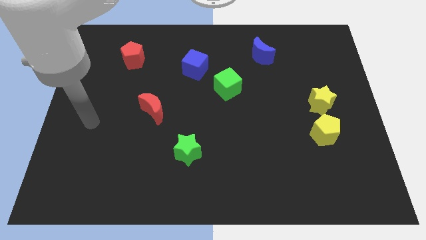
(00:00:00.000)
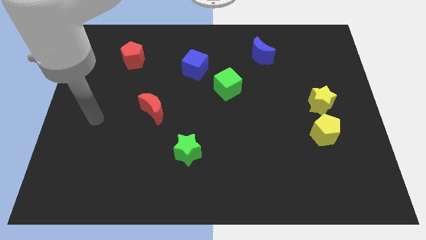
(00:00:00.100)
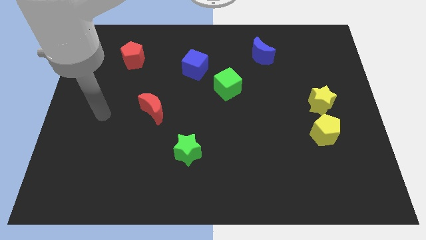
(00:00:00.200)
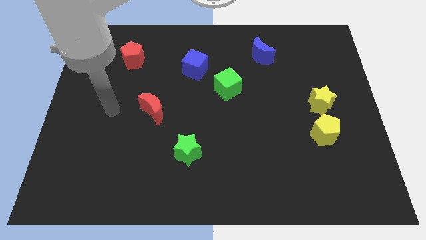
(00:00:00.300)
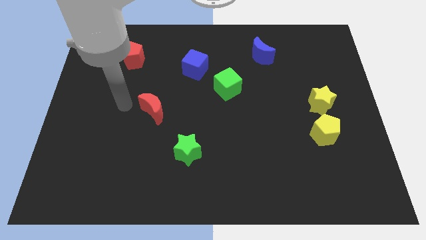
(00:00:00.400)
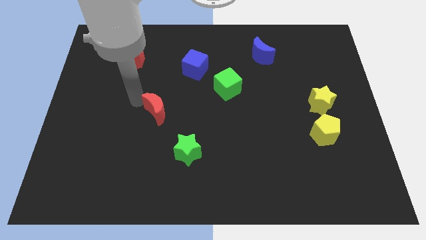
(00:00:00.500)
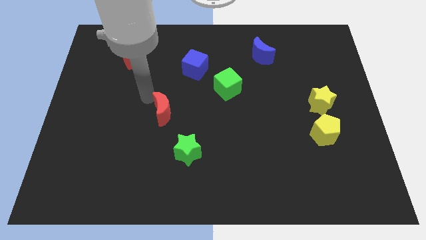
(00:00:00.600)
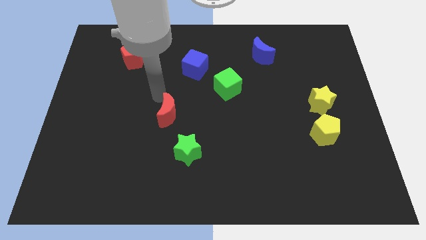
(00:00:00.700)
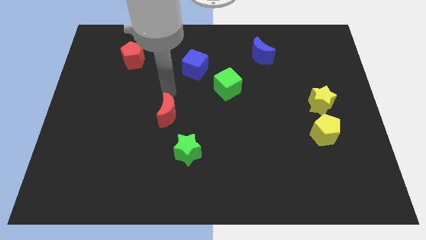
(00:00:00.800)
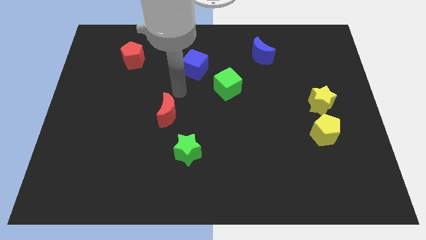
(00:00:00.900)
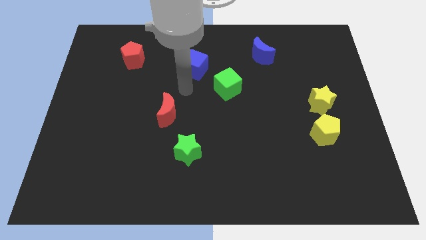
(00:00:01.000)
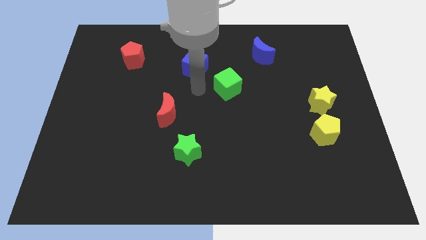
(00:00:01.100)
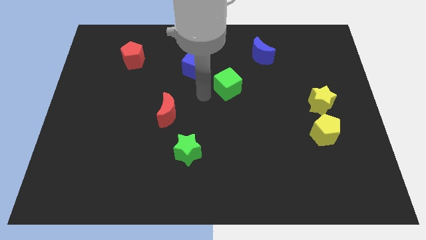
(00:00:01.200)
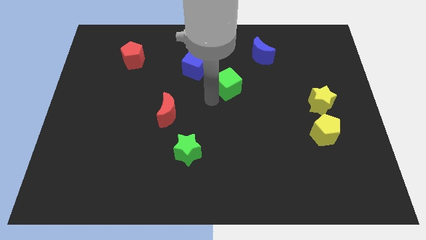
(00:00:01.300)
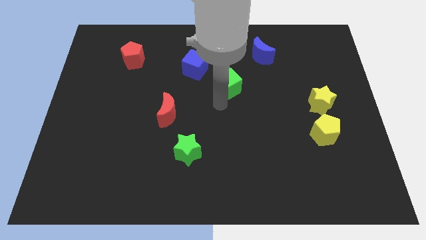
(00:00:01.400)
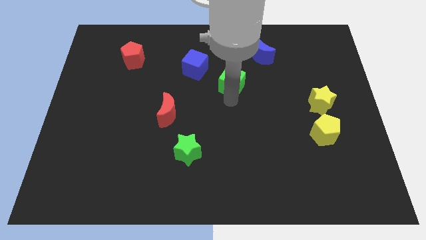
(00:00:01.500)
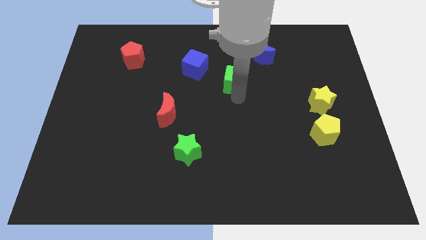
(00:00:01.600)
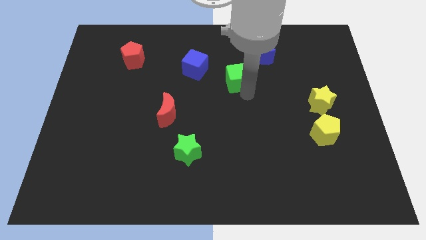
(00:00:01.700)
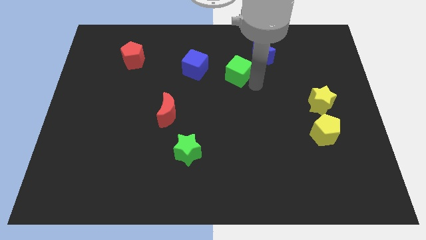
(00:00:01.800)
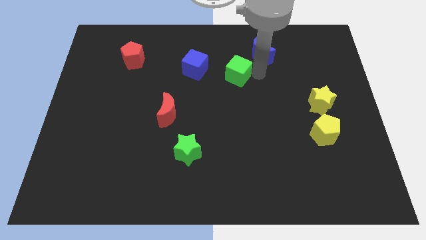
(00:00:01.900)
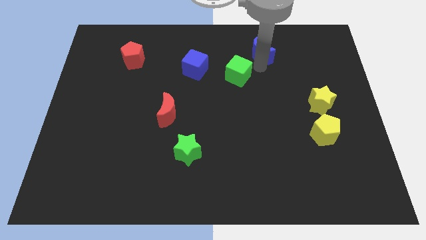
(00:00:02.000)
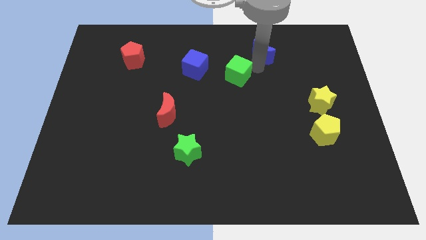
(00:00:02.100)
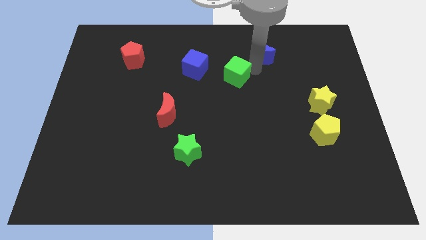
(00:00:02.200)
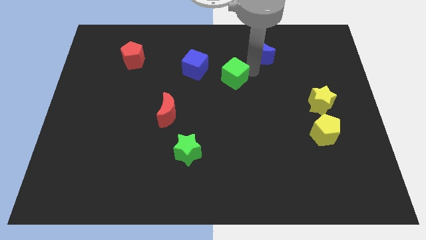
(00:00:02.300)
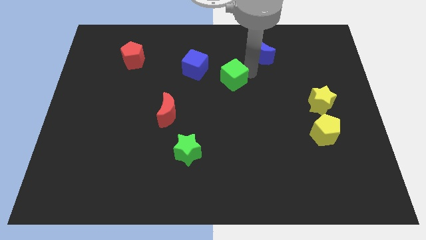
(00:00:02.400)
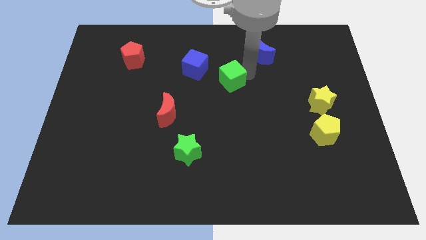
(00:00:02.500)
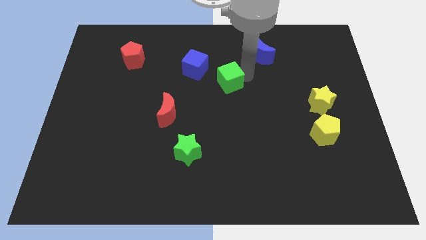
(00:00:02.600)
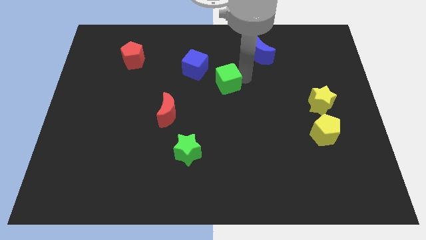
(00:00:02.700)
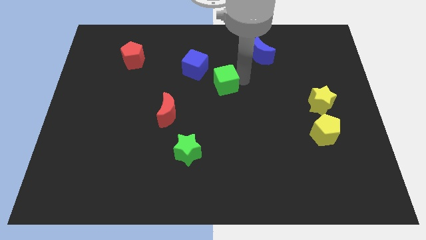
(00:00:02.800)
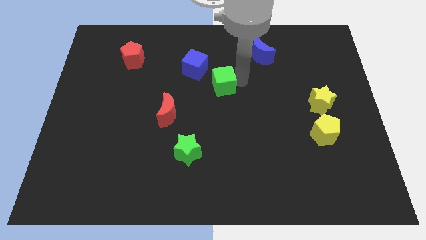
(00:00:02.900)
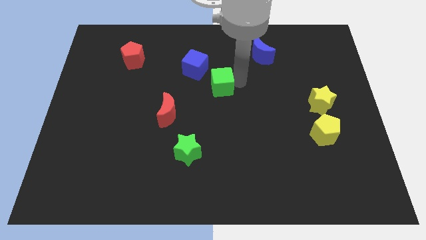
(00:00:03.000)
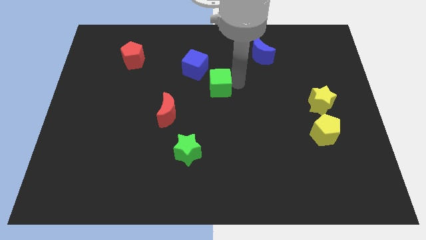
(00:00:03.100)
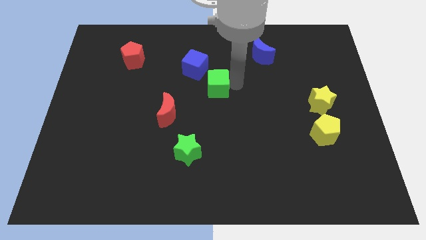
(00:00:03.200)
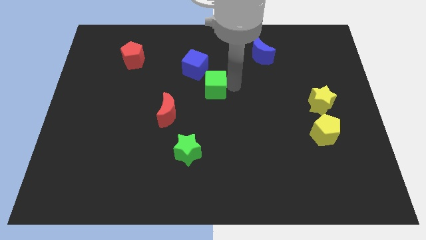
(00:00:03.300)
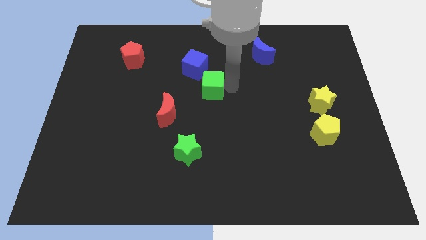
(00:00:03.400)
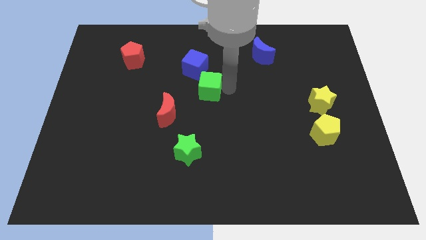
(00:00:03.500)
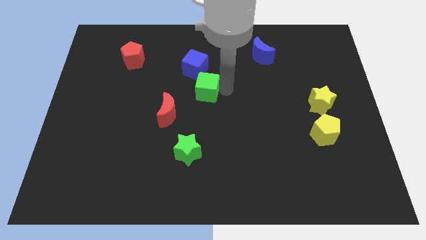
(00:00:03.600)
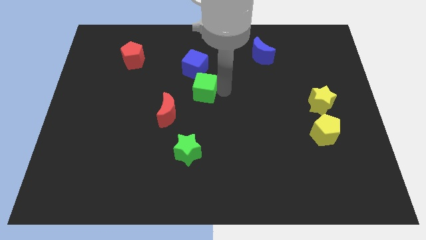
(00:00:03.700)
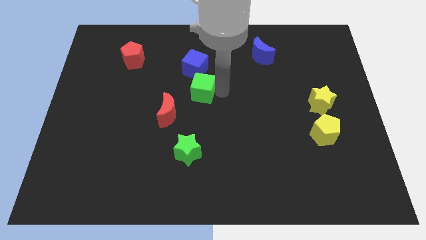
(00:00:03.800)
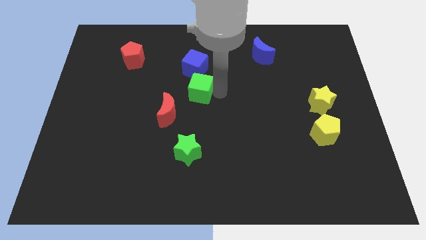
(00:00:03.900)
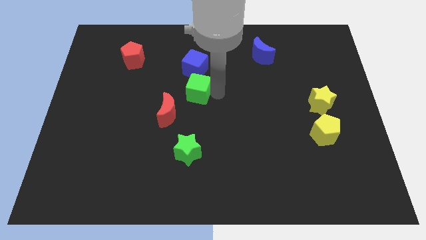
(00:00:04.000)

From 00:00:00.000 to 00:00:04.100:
push the green cube to the left a bit

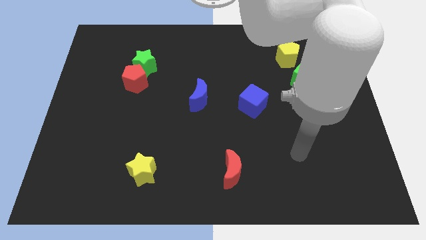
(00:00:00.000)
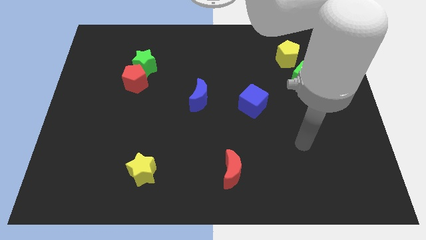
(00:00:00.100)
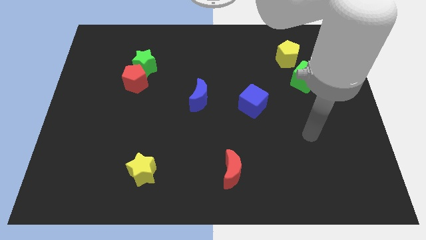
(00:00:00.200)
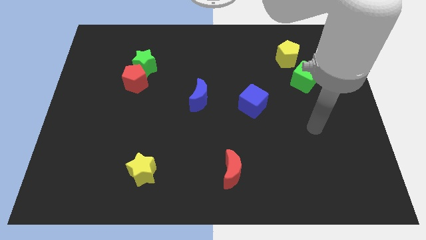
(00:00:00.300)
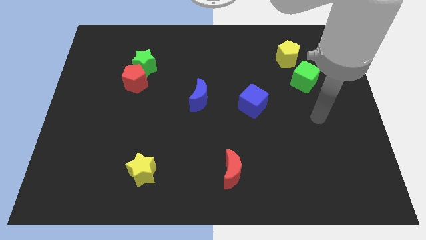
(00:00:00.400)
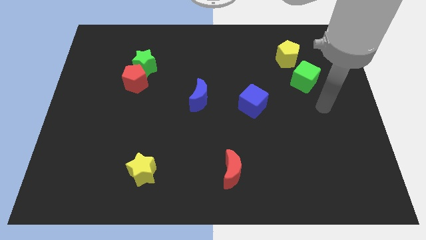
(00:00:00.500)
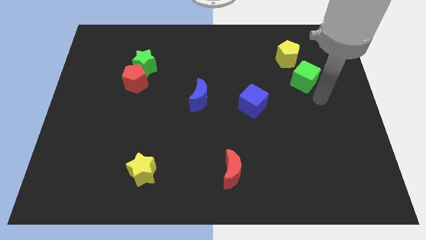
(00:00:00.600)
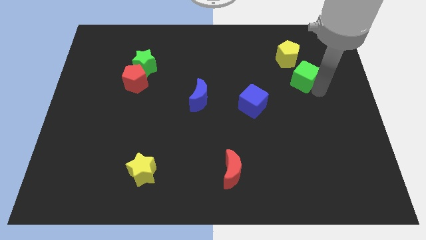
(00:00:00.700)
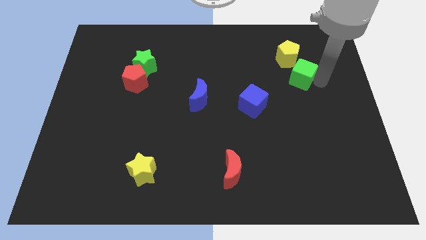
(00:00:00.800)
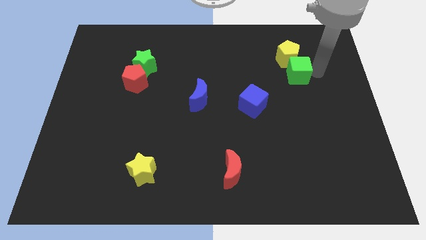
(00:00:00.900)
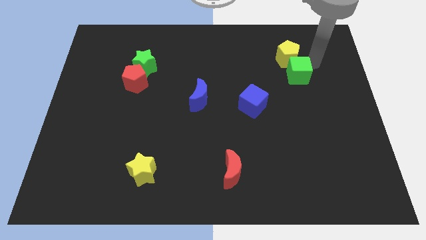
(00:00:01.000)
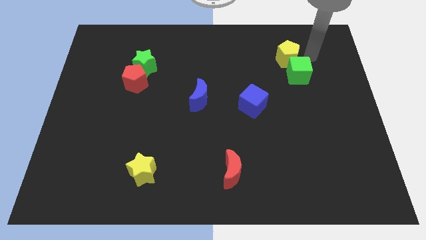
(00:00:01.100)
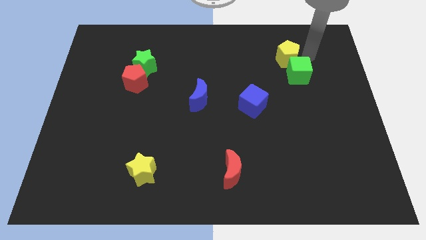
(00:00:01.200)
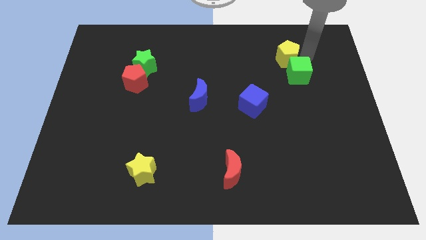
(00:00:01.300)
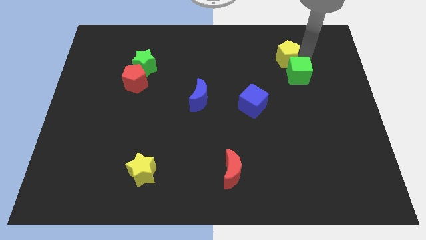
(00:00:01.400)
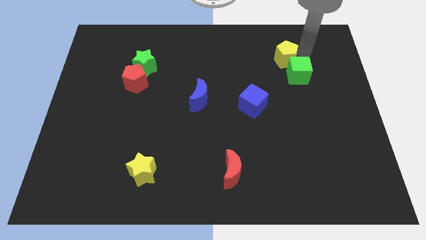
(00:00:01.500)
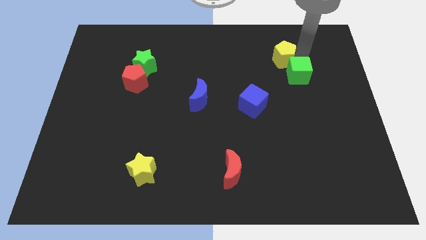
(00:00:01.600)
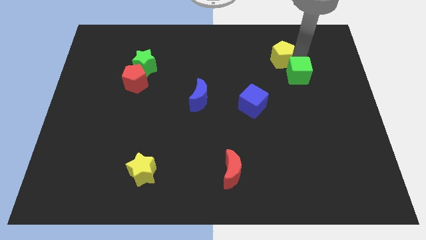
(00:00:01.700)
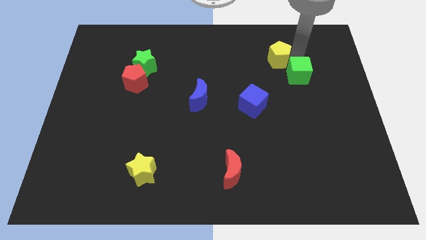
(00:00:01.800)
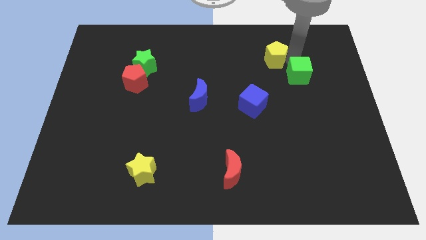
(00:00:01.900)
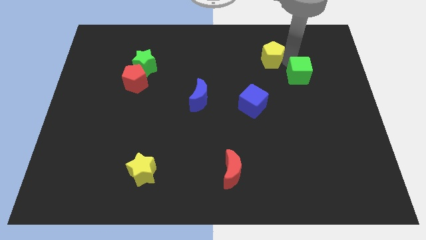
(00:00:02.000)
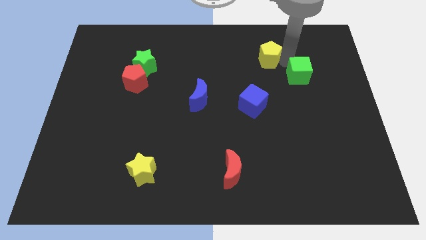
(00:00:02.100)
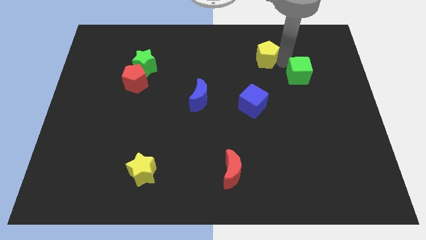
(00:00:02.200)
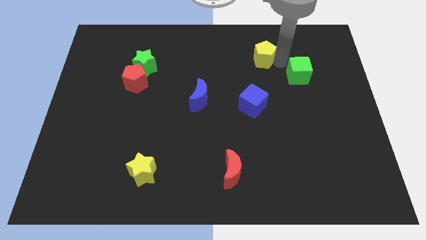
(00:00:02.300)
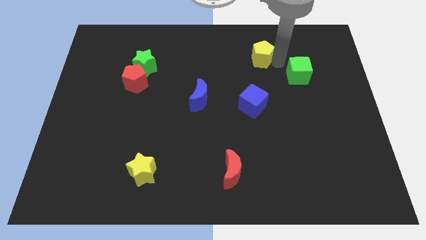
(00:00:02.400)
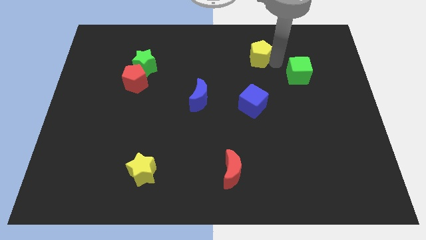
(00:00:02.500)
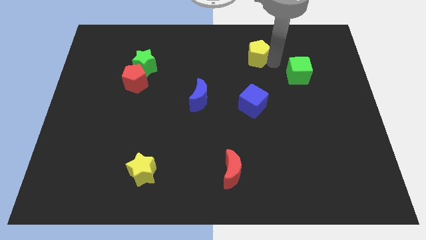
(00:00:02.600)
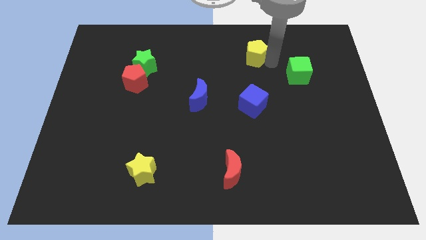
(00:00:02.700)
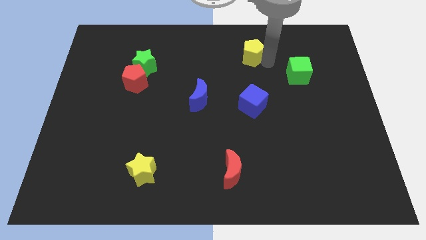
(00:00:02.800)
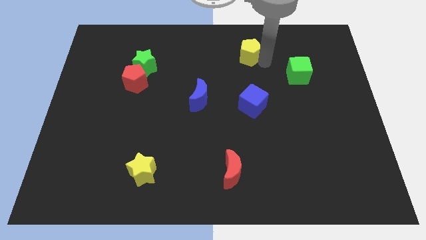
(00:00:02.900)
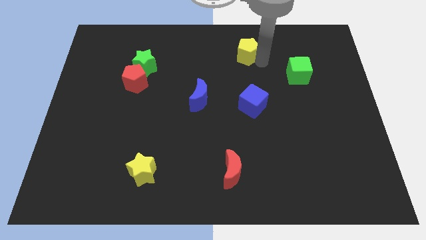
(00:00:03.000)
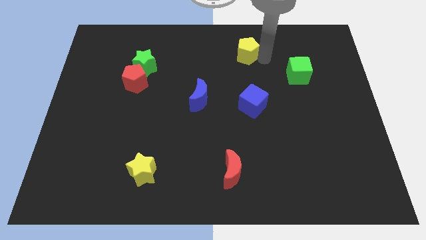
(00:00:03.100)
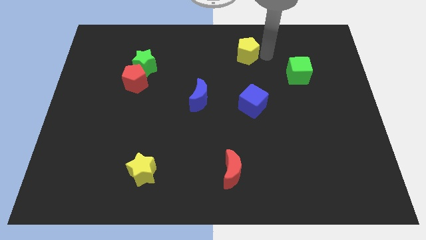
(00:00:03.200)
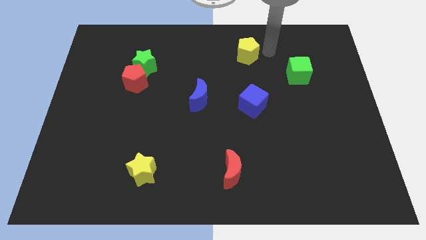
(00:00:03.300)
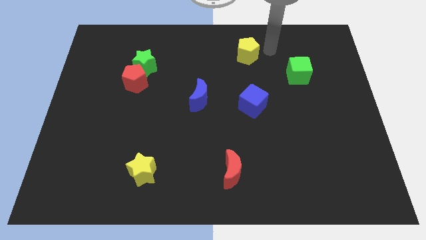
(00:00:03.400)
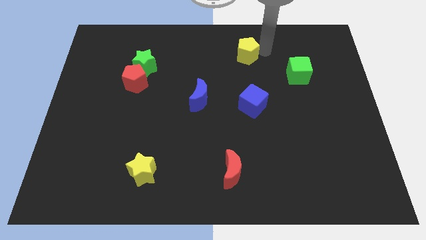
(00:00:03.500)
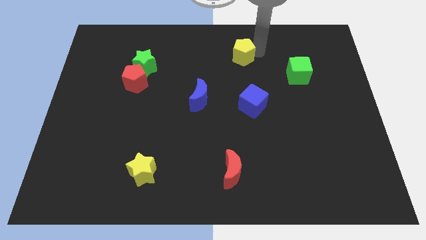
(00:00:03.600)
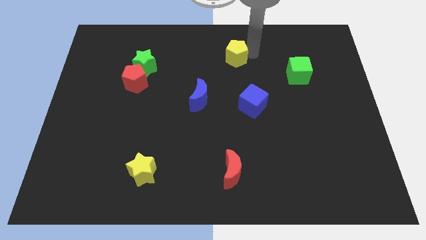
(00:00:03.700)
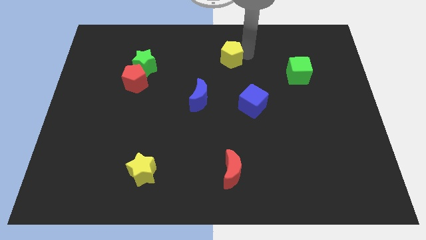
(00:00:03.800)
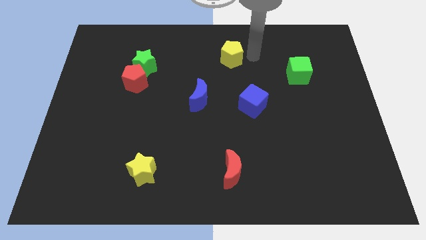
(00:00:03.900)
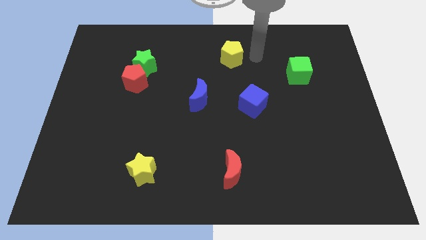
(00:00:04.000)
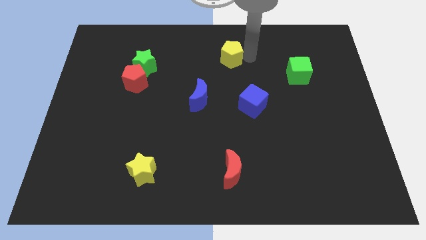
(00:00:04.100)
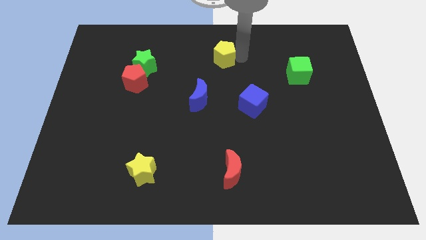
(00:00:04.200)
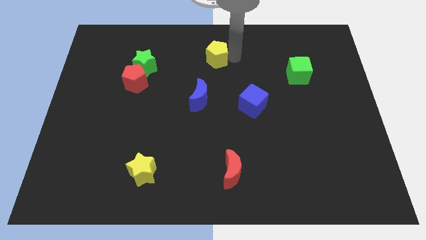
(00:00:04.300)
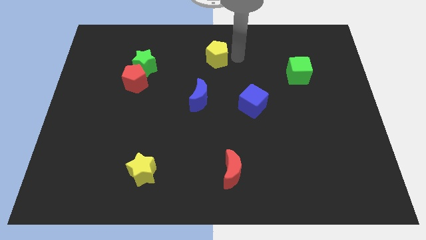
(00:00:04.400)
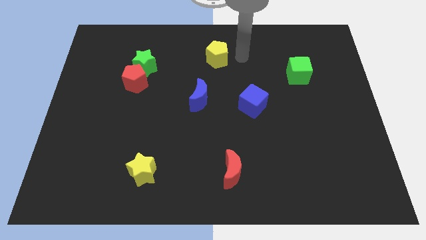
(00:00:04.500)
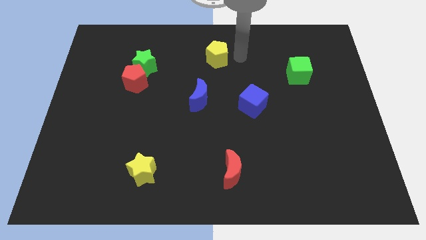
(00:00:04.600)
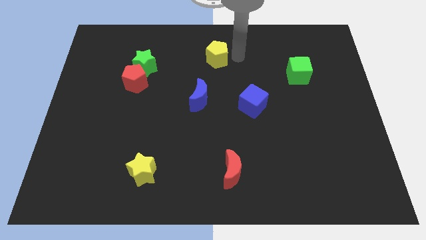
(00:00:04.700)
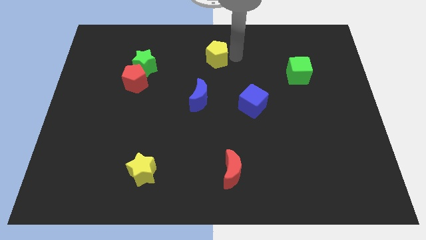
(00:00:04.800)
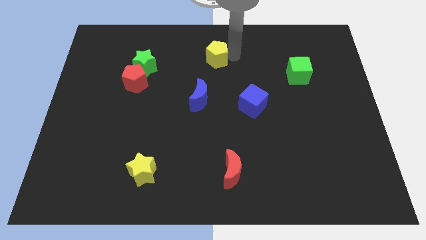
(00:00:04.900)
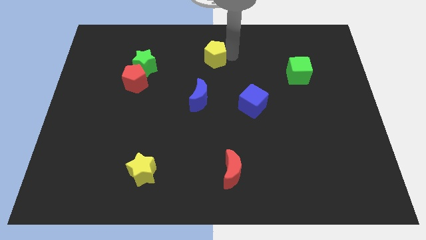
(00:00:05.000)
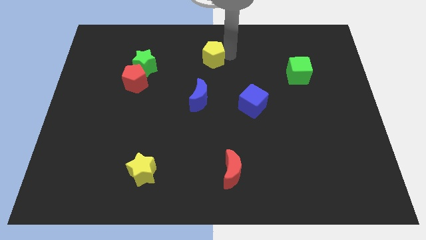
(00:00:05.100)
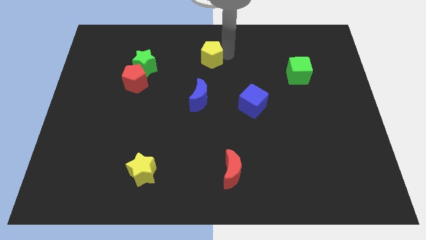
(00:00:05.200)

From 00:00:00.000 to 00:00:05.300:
move the yellow pentagon to the left
